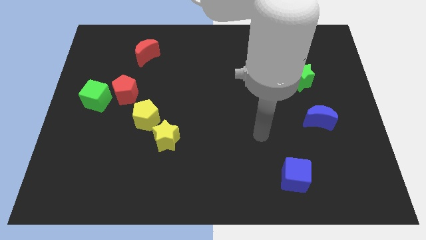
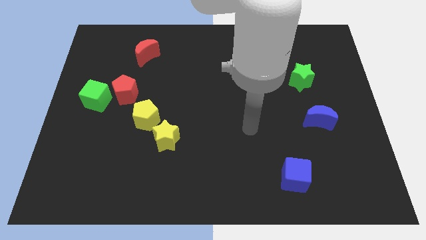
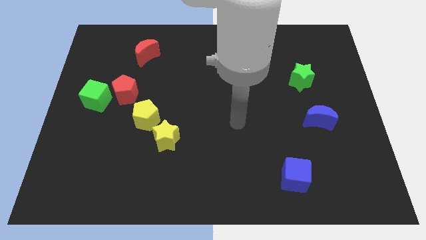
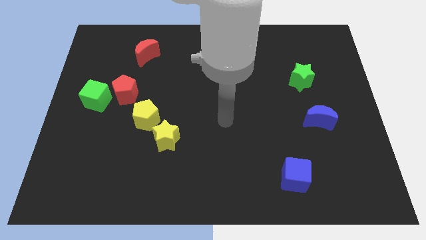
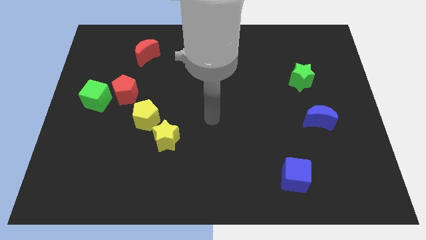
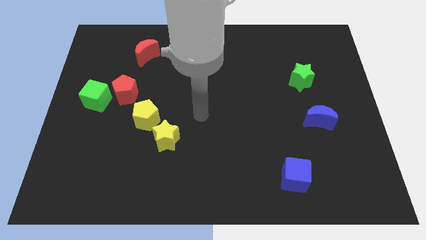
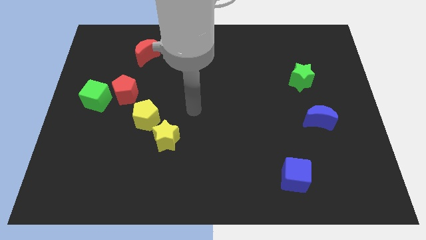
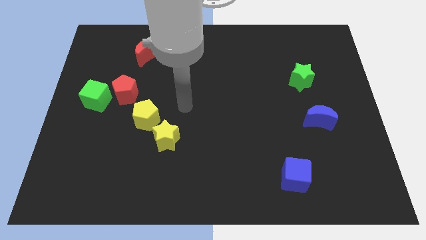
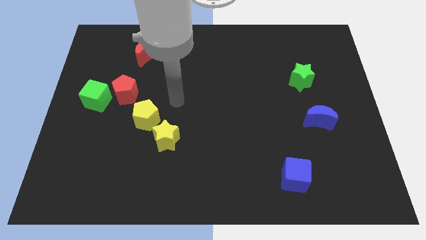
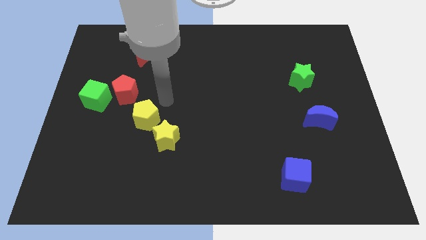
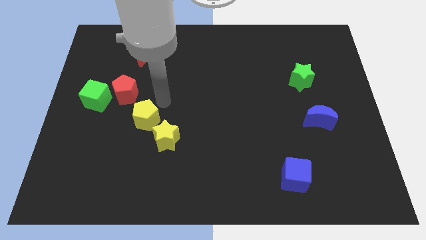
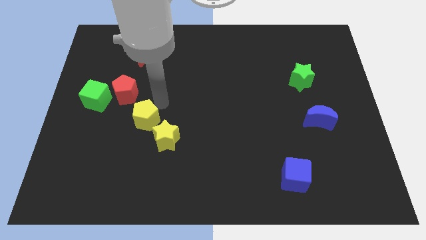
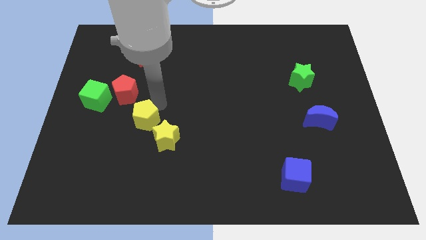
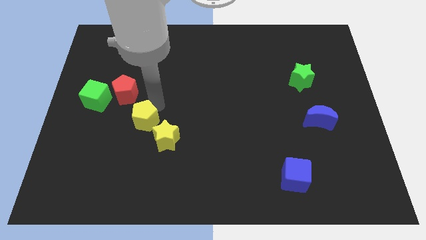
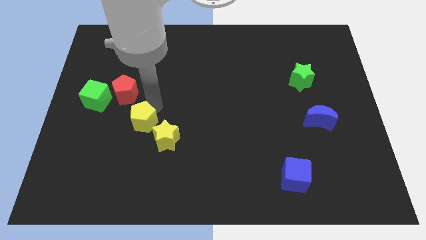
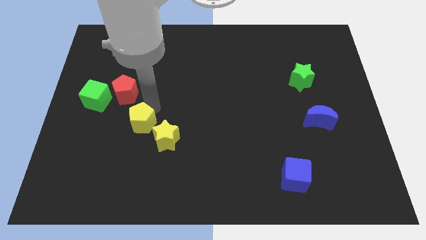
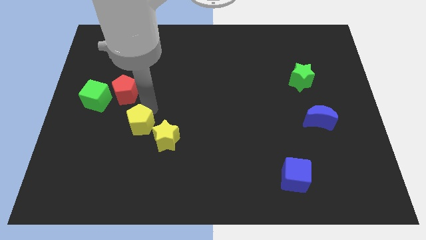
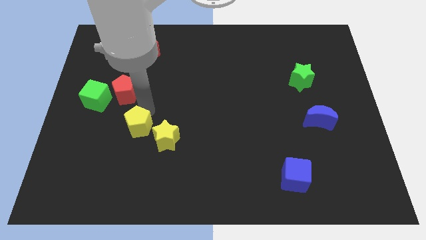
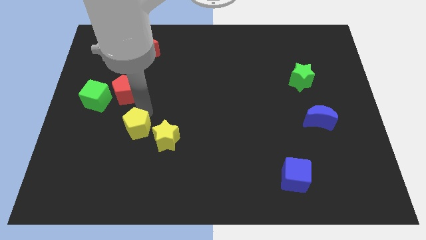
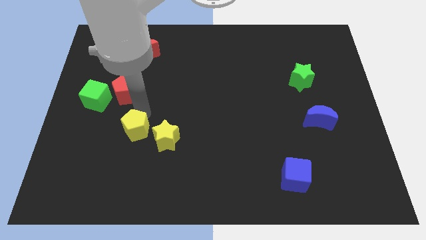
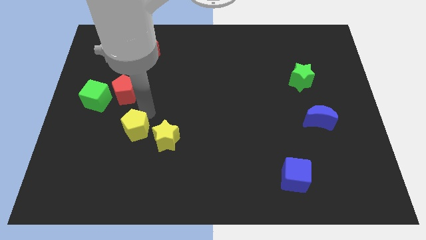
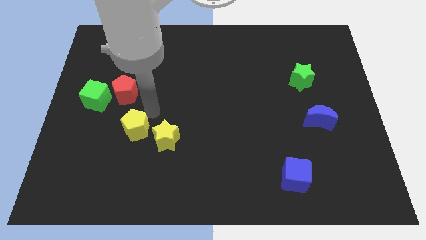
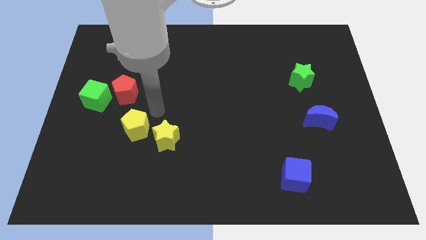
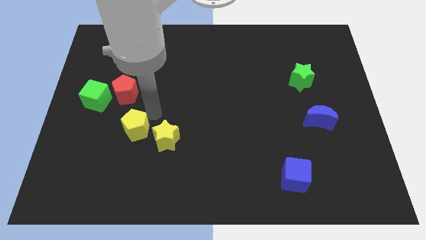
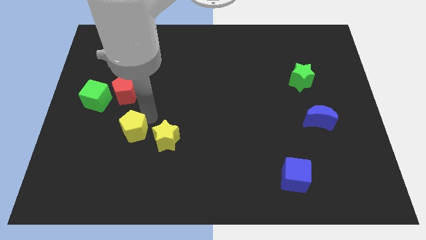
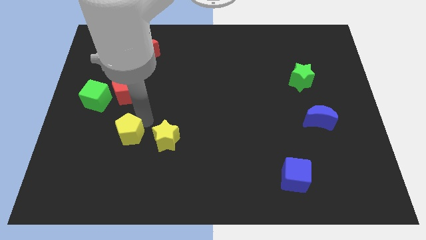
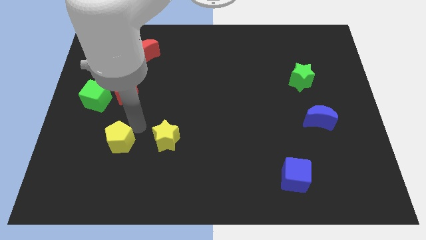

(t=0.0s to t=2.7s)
slightly push the yellow pentagon down and then to the left

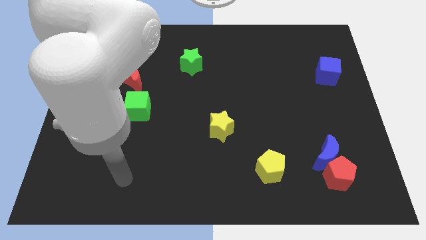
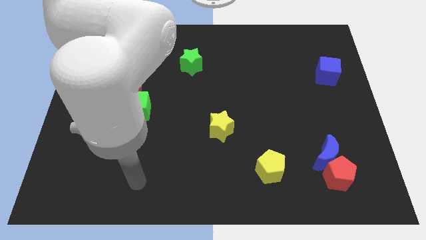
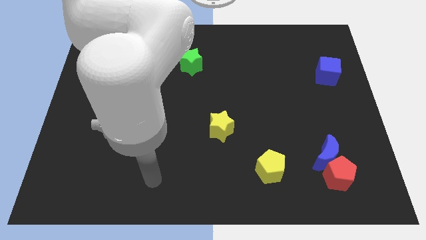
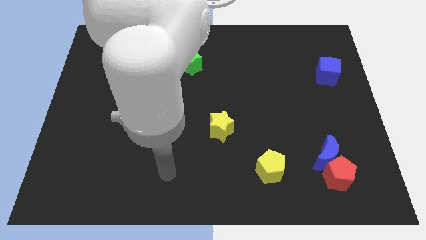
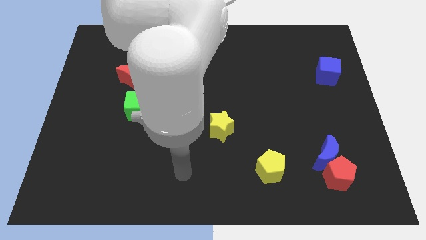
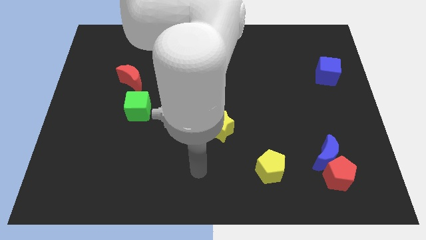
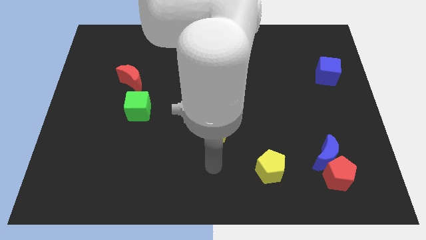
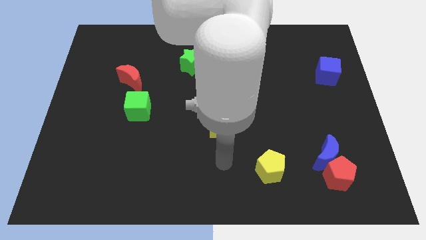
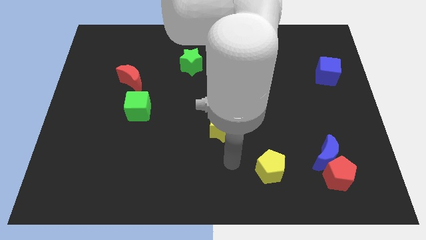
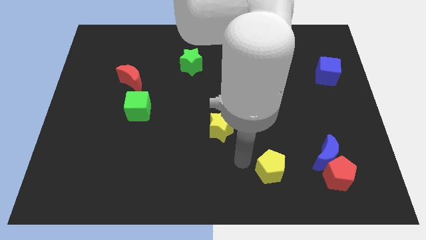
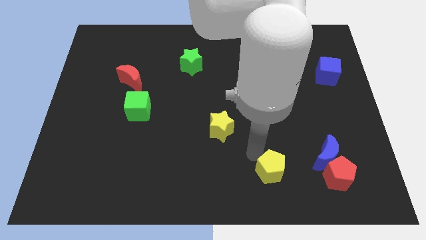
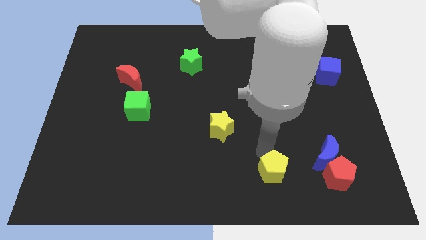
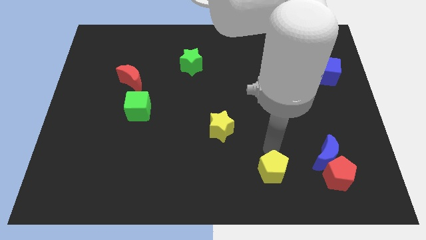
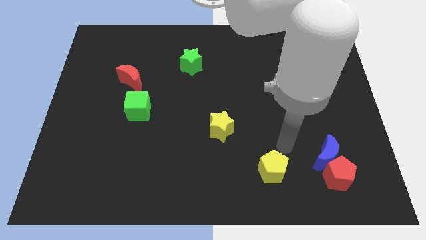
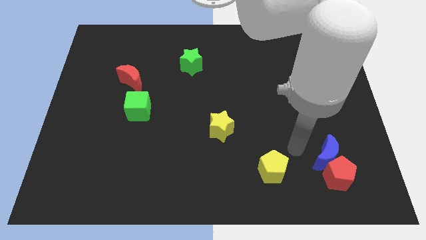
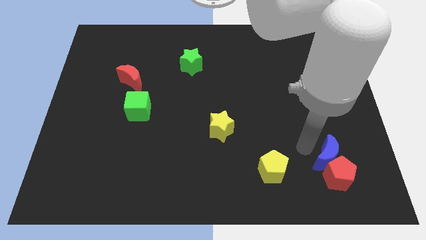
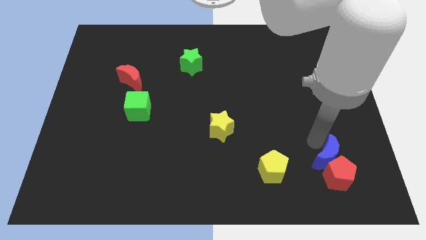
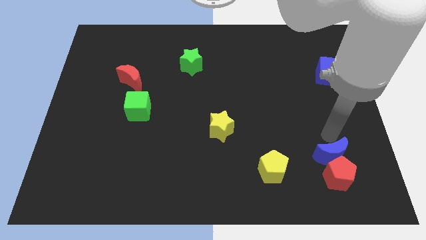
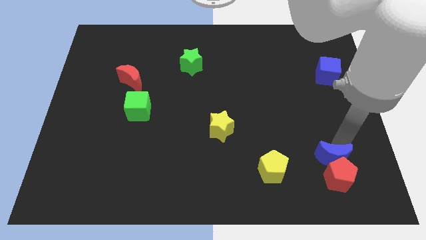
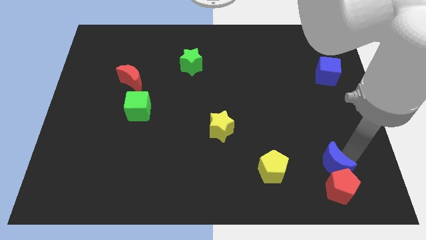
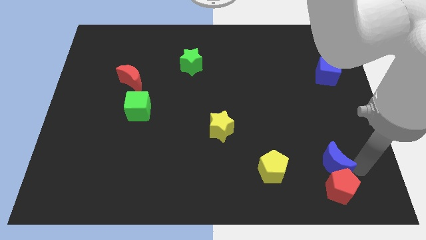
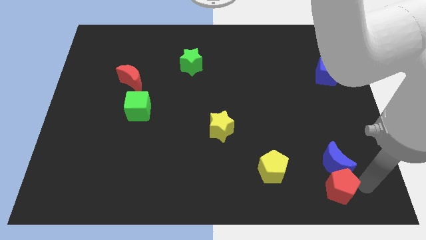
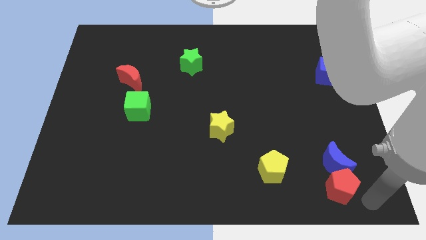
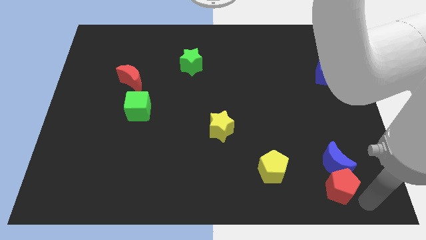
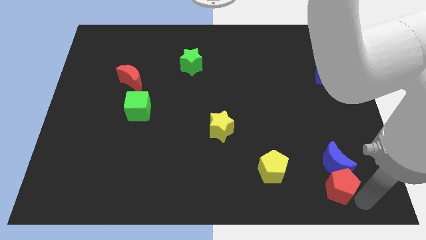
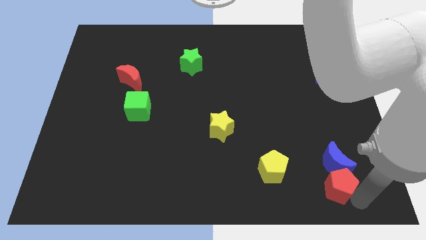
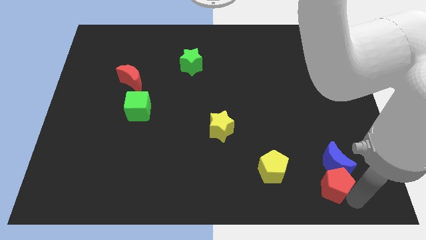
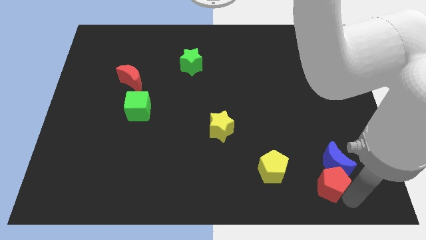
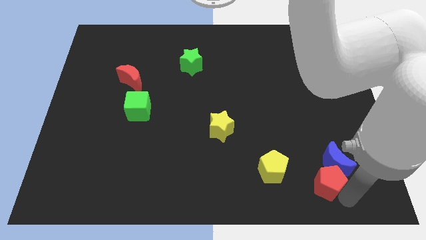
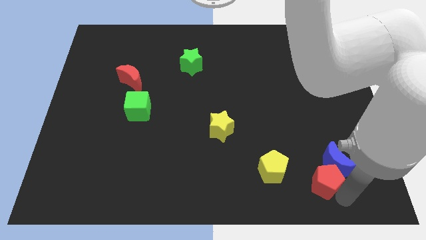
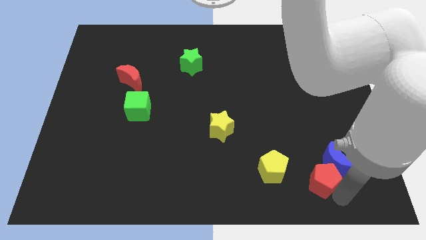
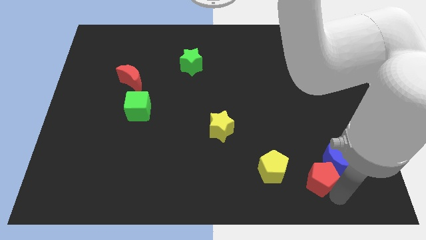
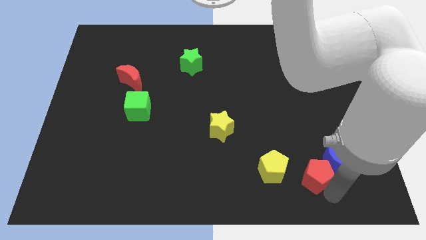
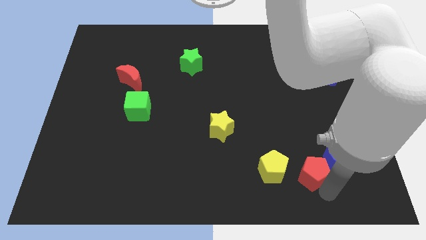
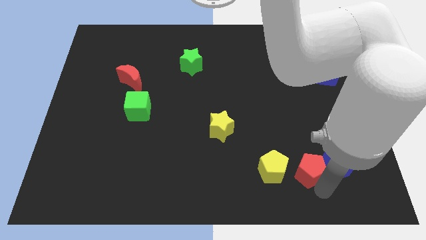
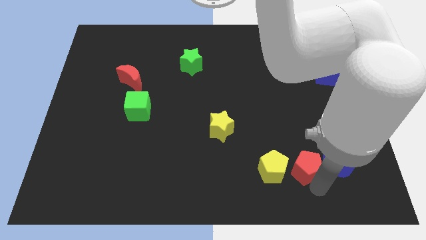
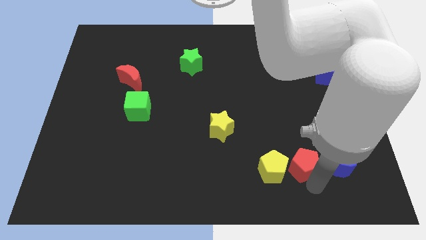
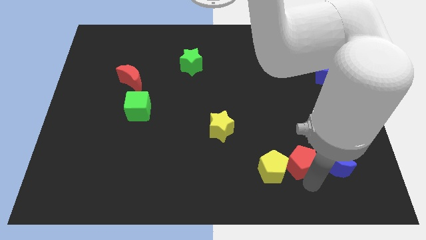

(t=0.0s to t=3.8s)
slightly push the red pentagon diagonally up and to the left

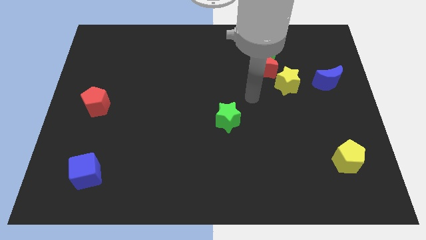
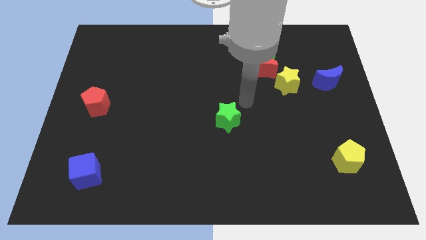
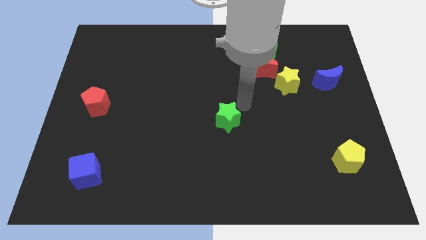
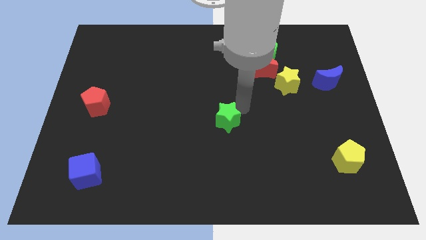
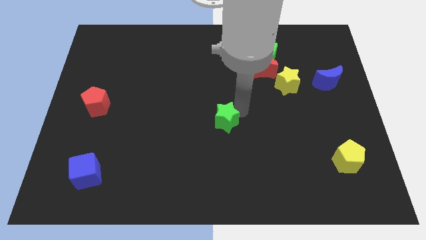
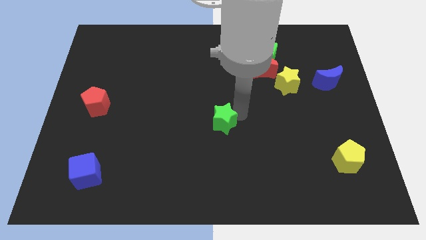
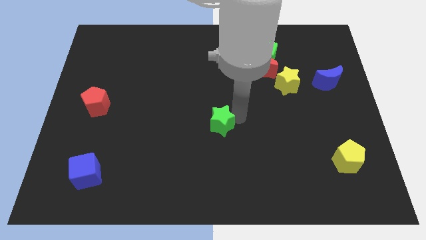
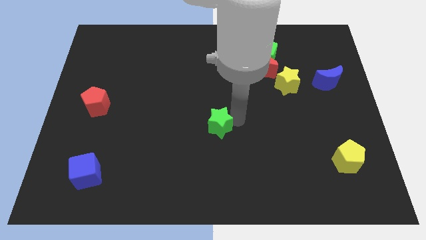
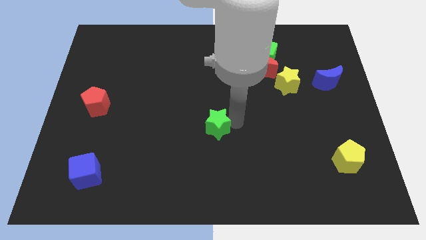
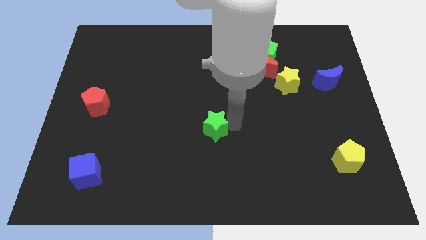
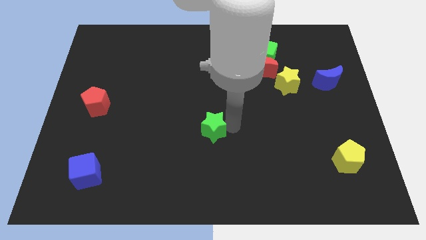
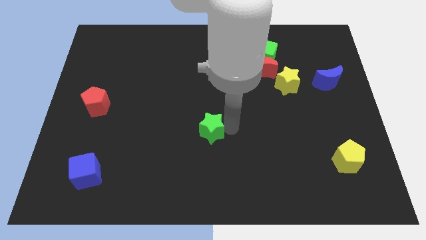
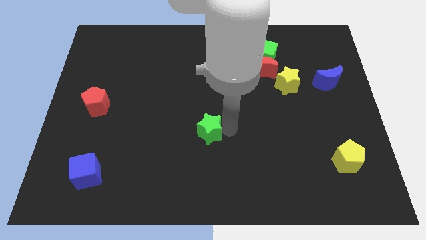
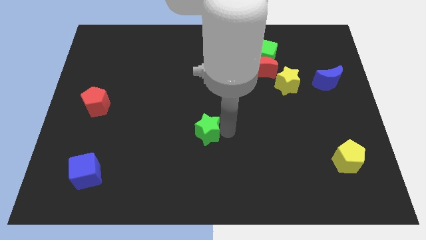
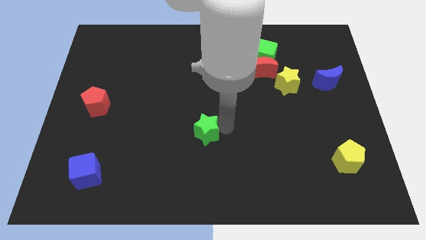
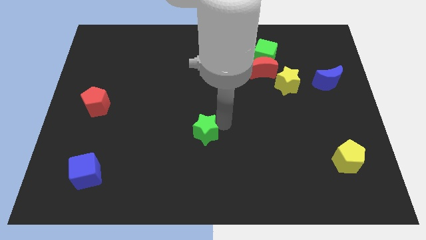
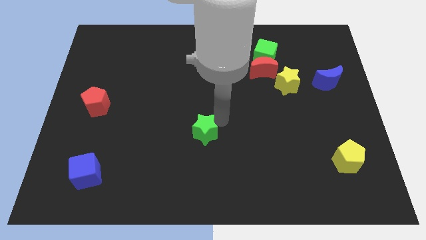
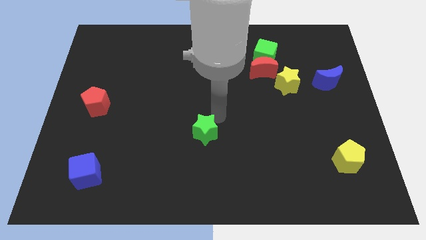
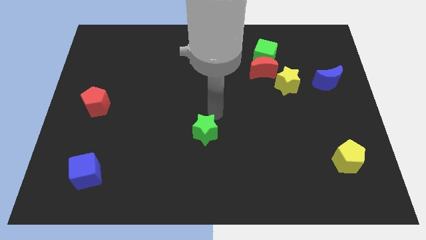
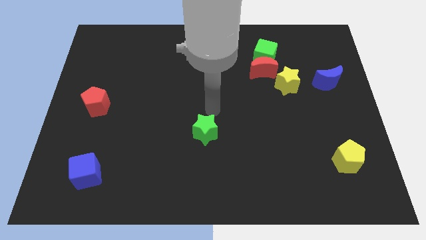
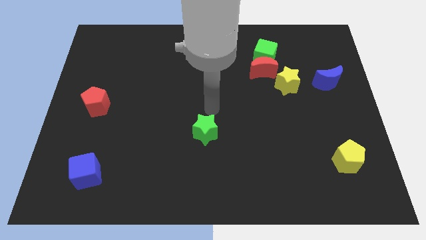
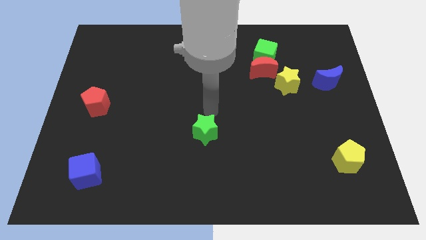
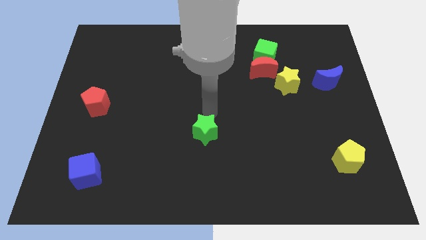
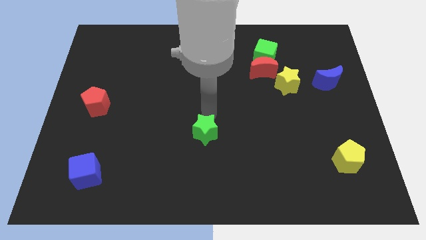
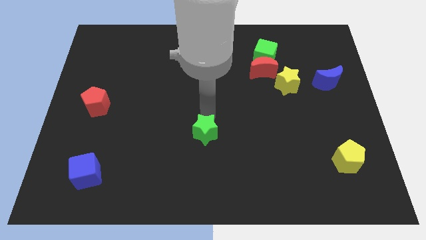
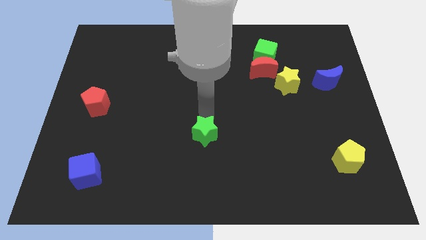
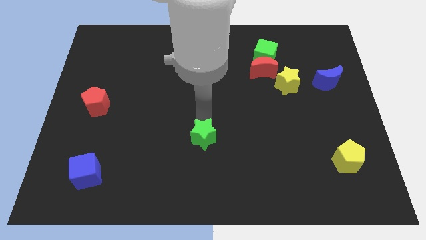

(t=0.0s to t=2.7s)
slightly push the green star downwards and to the left
